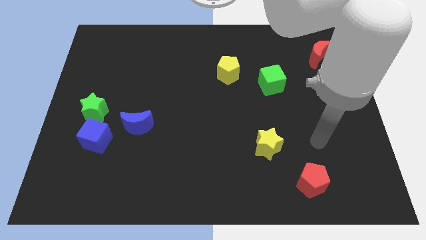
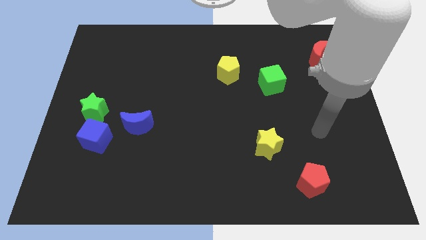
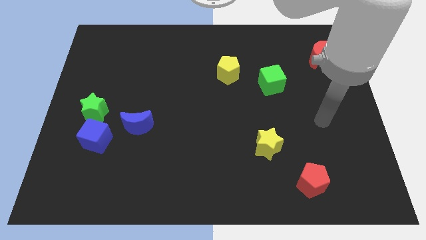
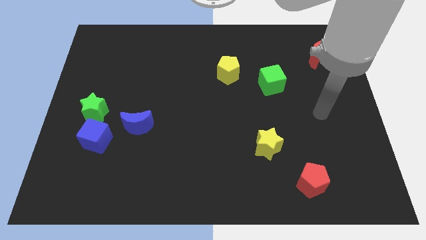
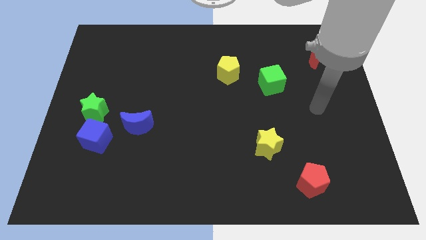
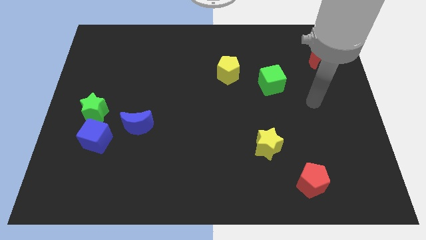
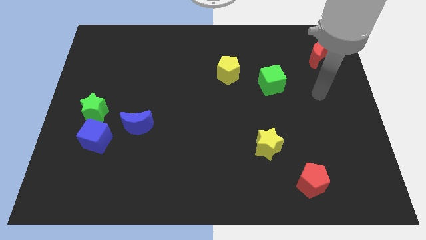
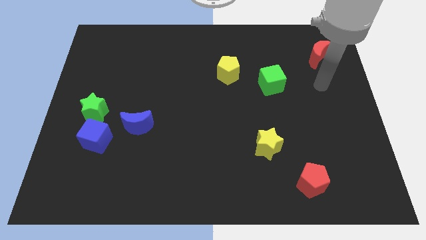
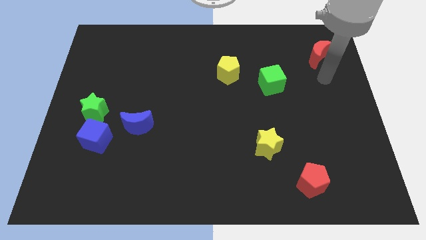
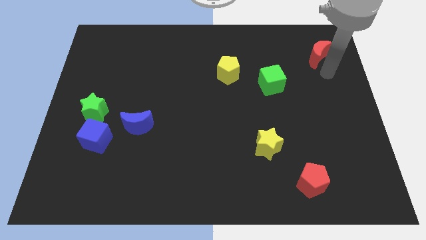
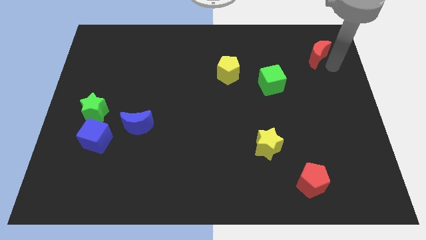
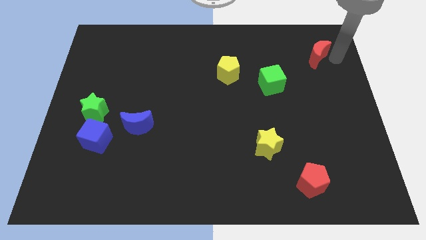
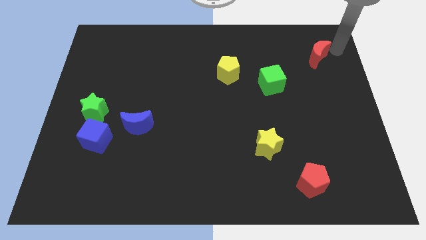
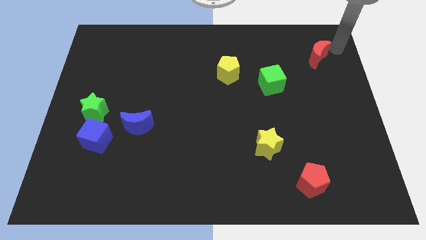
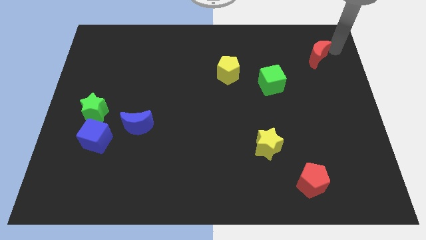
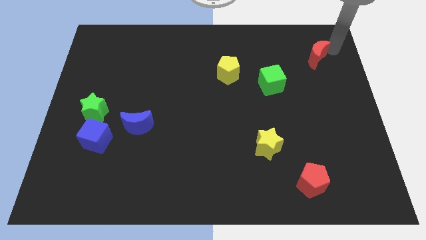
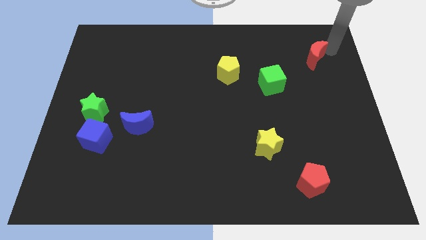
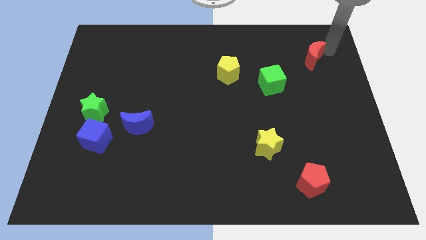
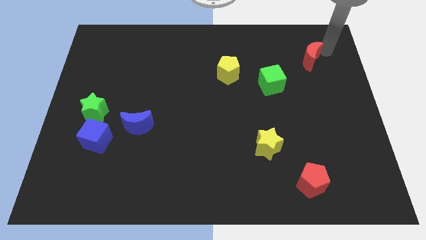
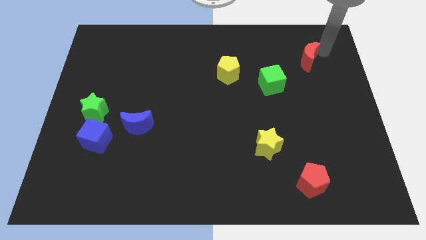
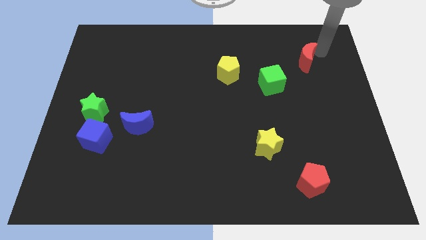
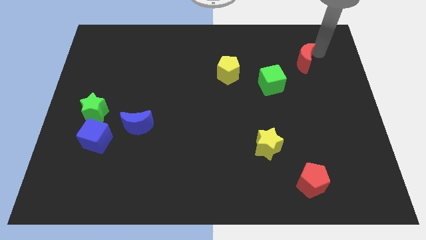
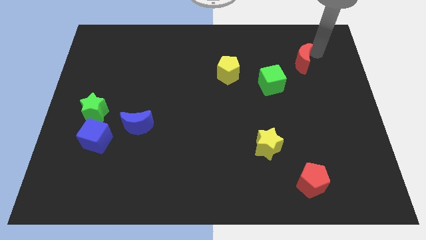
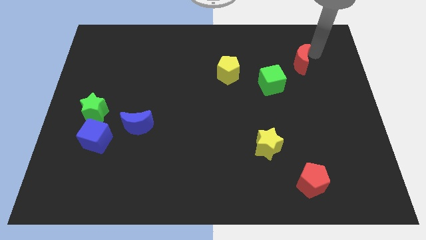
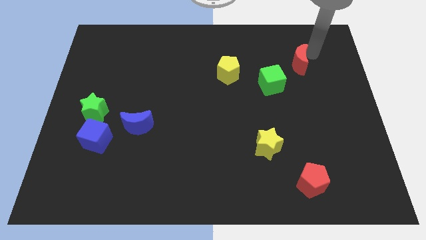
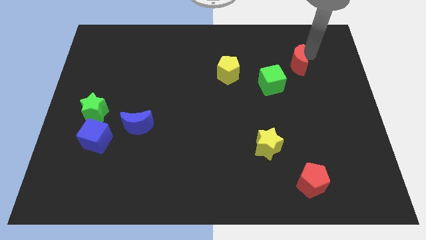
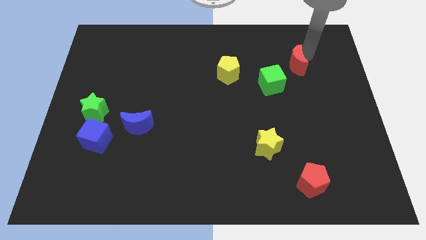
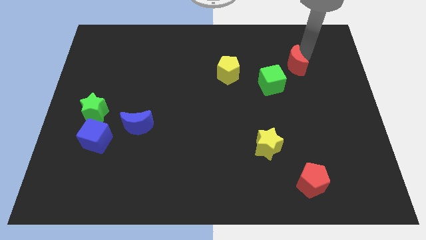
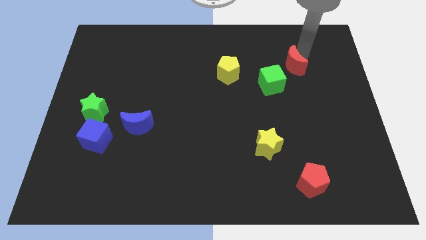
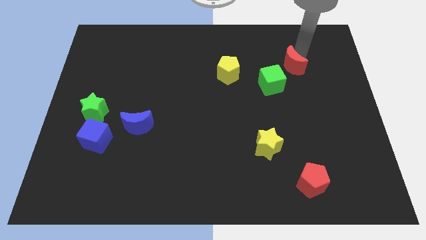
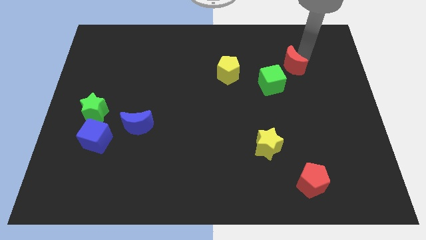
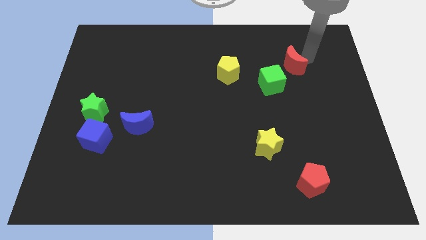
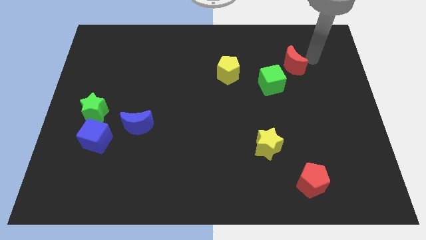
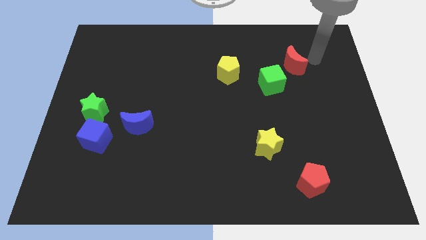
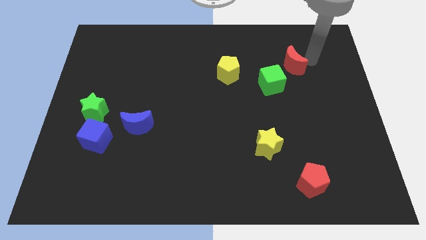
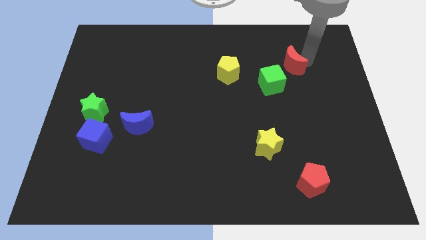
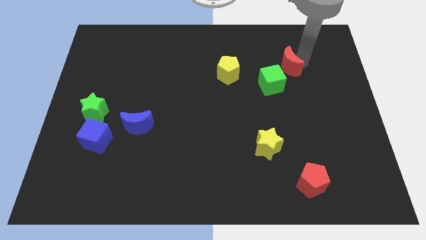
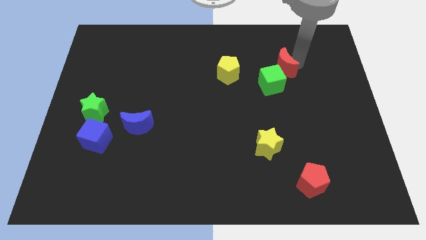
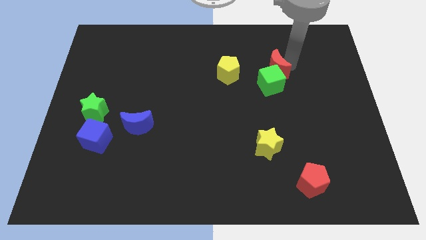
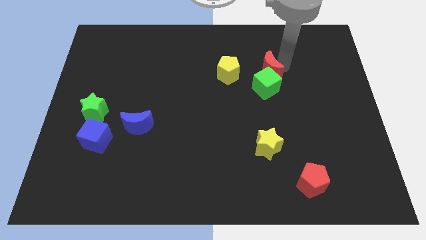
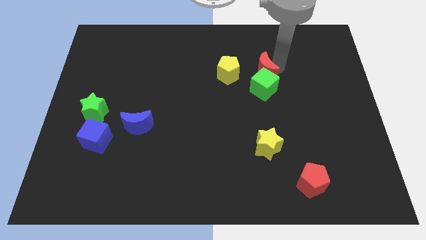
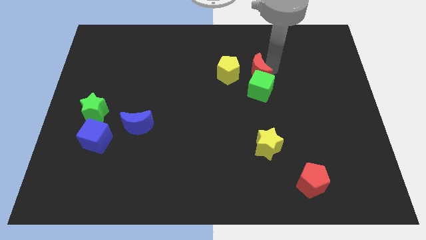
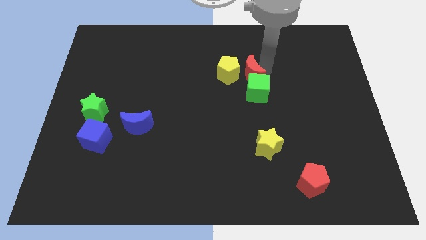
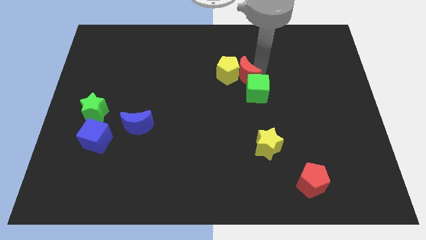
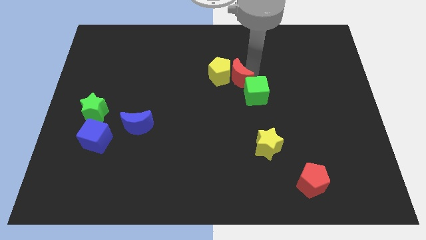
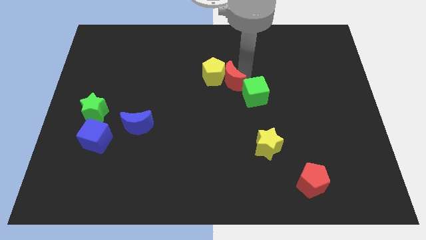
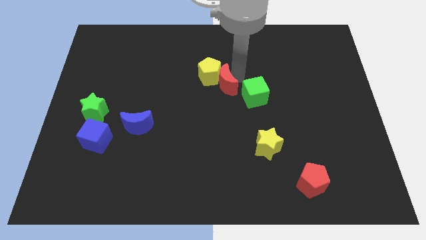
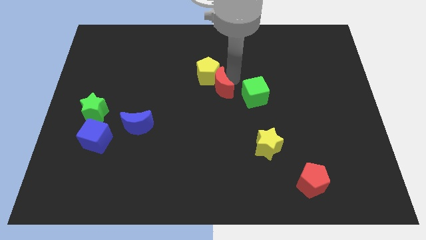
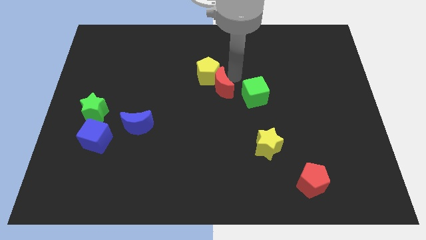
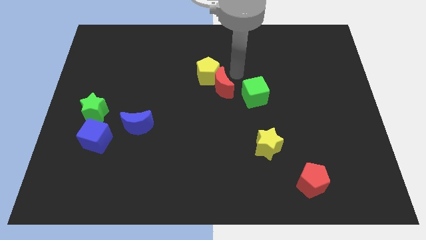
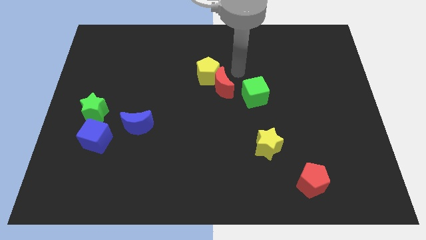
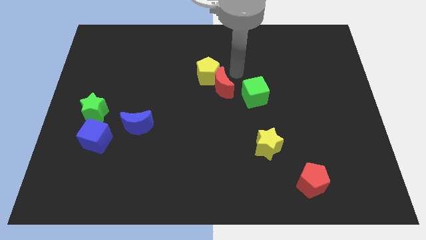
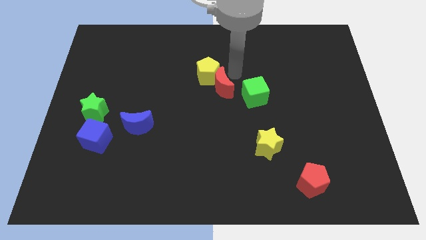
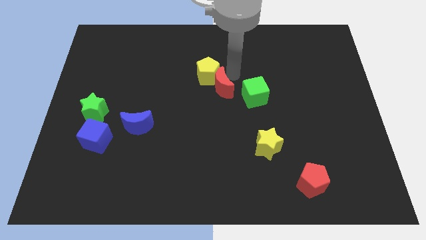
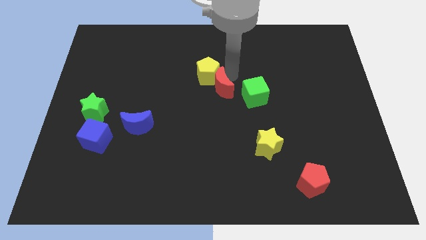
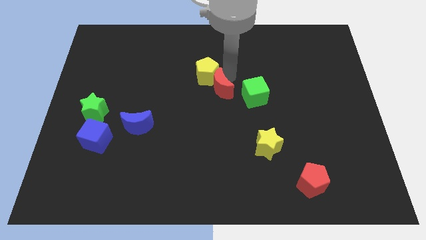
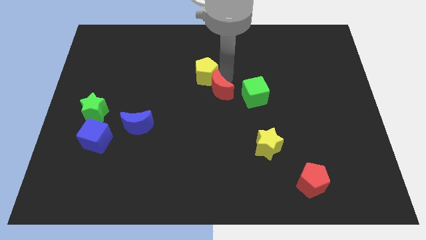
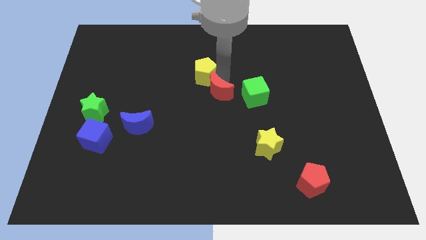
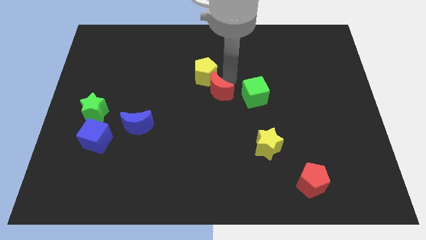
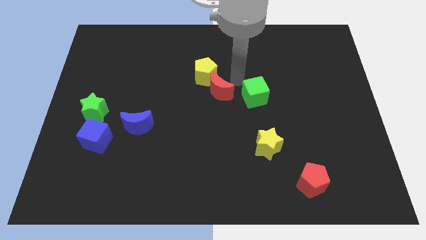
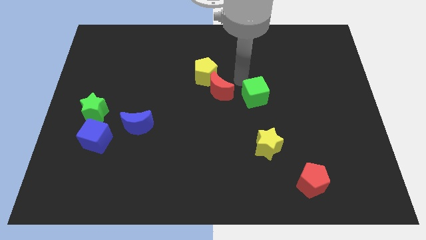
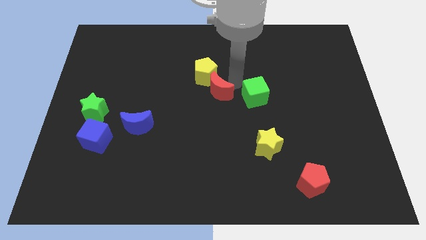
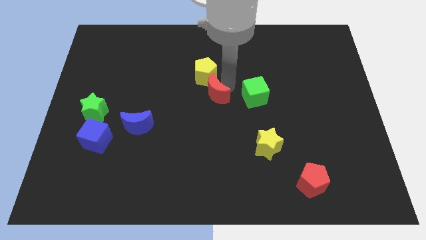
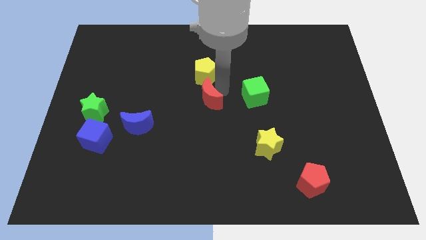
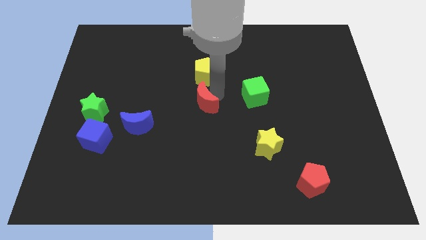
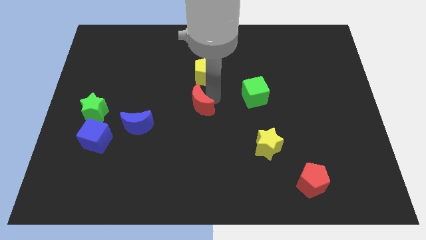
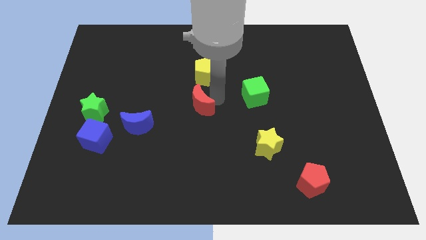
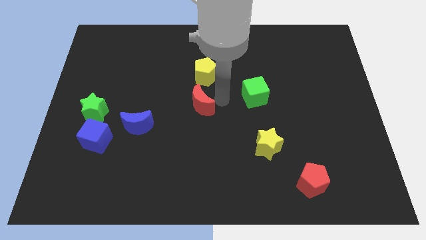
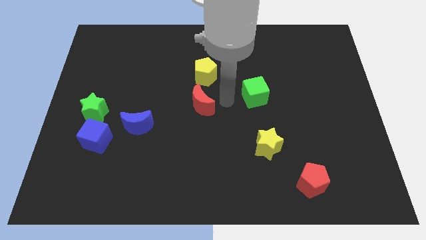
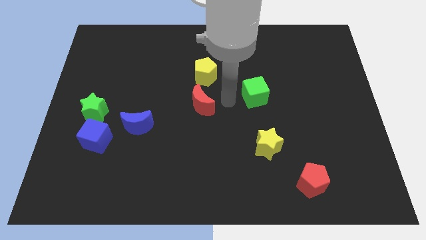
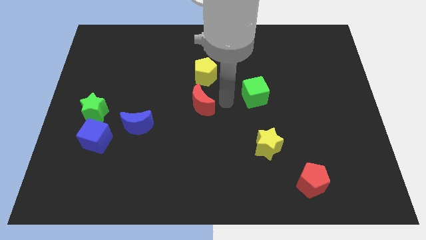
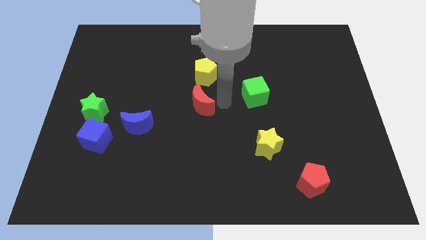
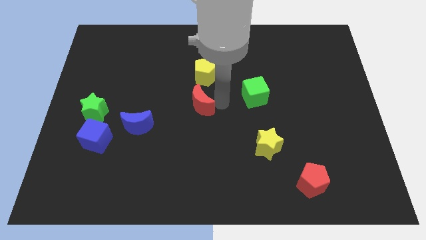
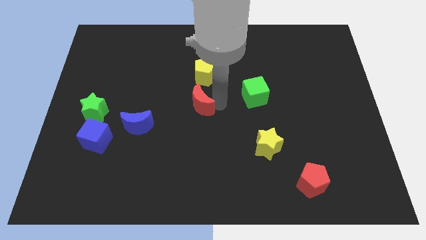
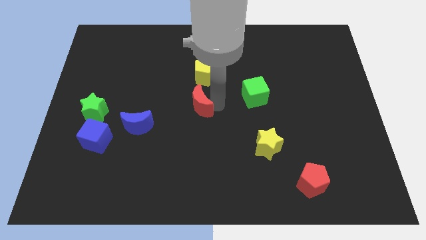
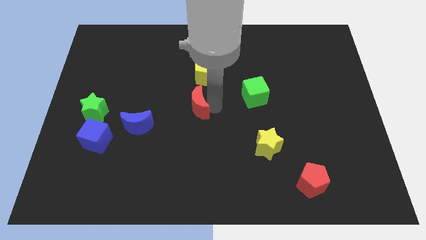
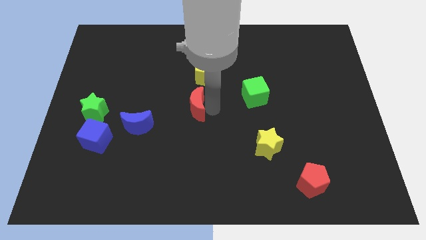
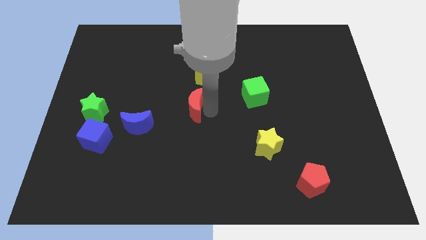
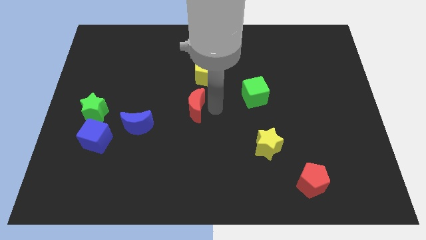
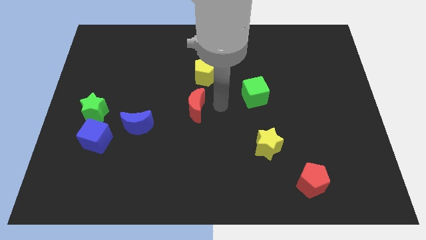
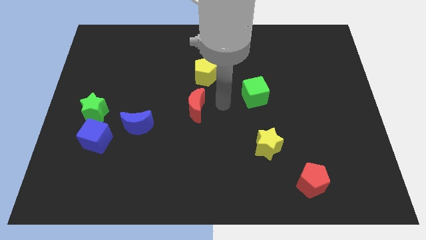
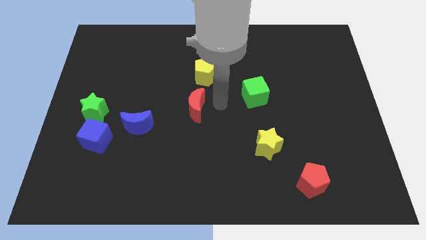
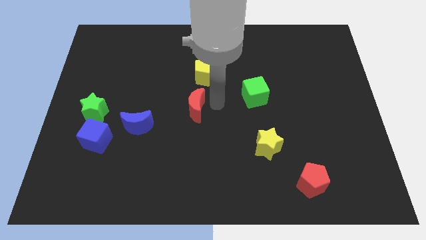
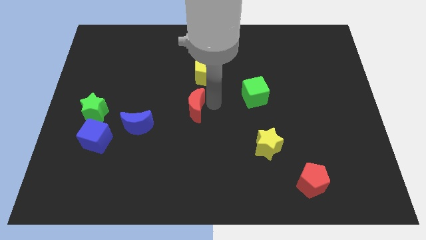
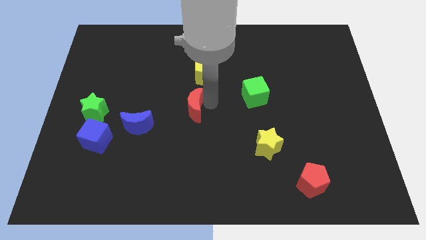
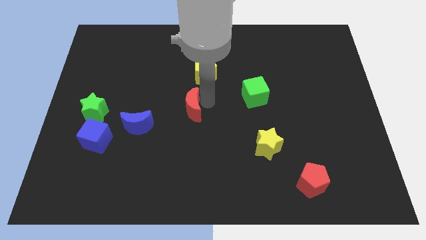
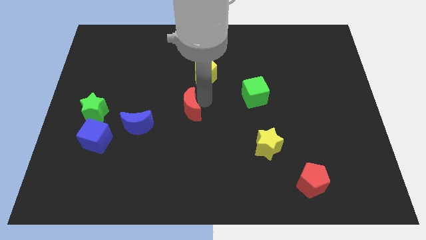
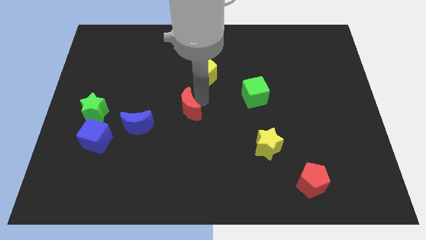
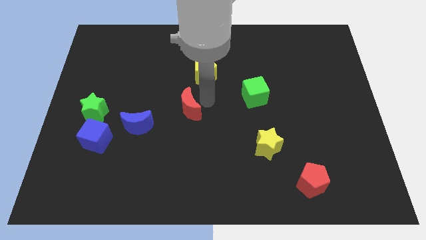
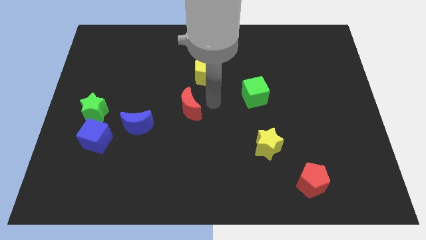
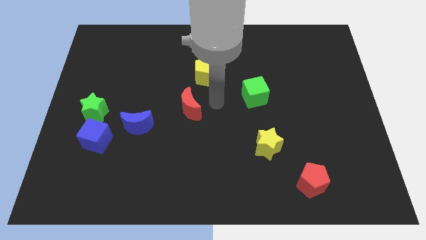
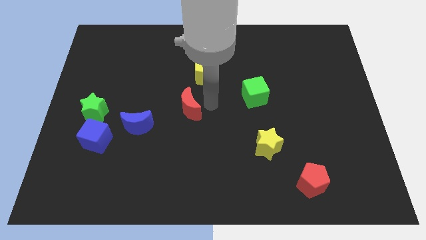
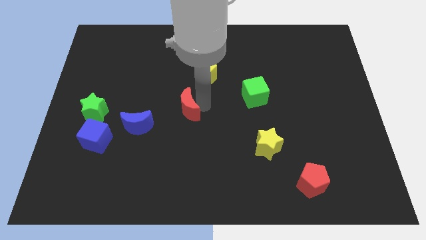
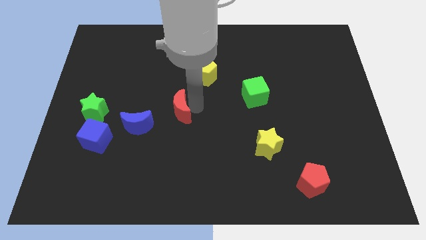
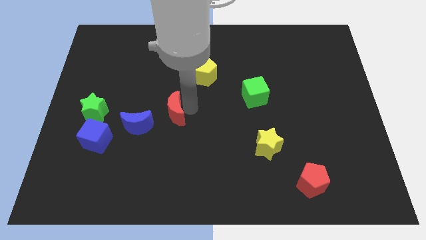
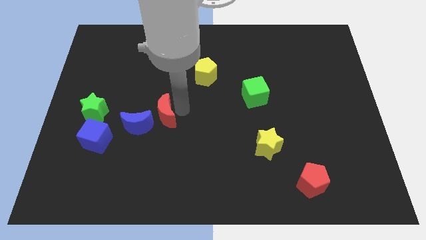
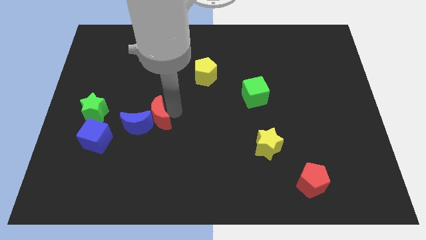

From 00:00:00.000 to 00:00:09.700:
push the red moon to the blue moon
